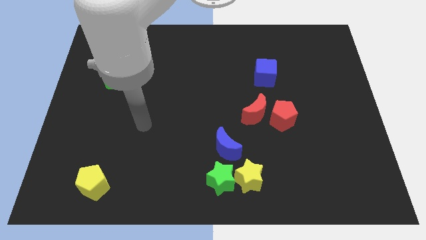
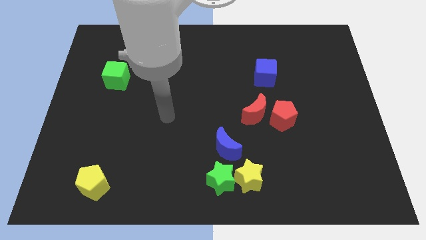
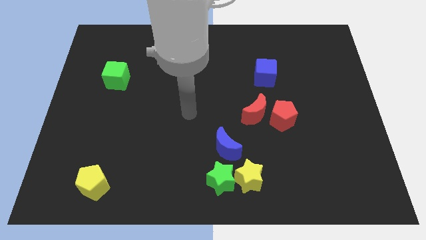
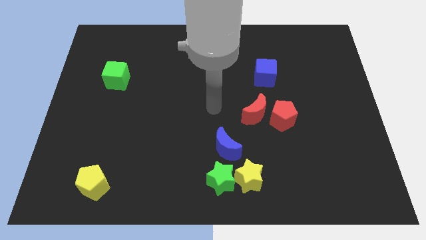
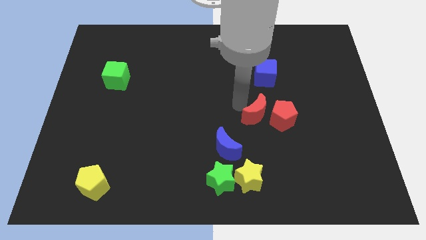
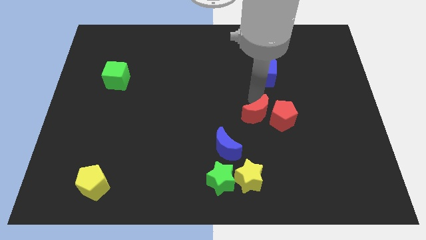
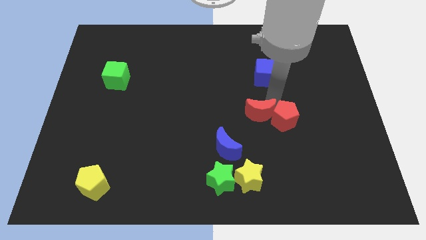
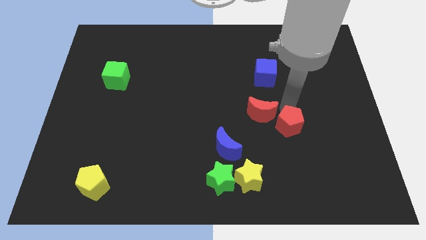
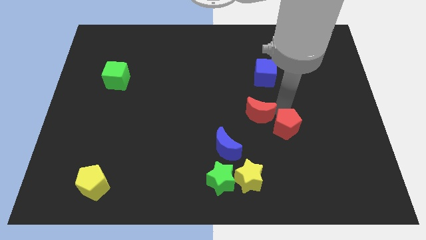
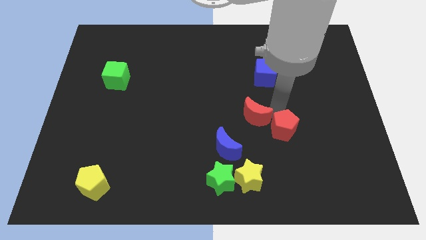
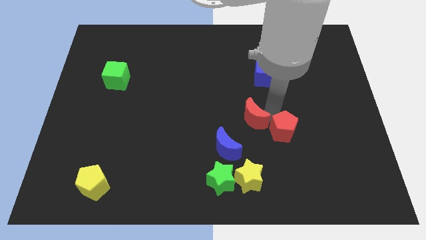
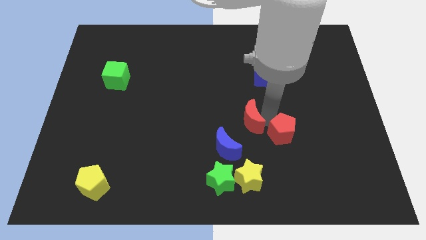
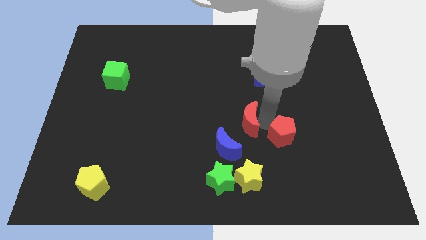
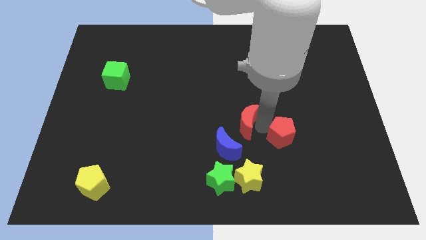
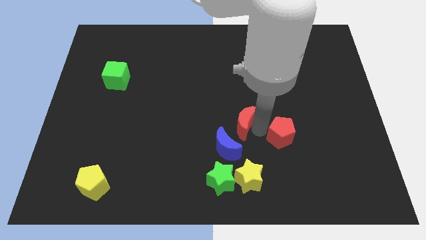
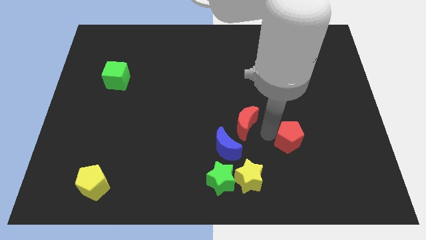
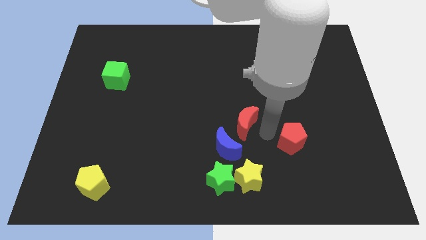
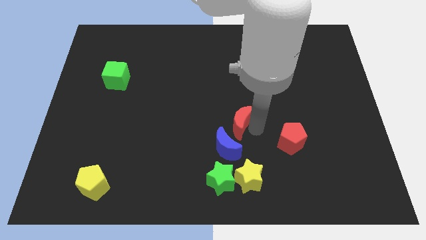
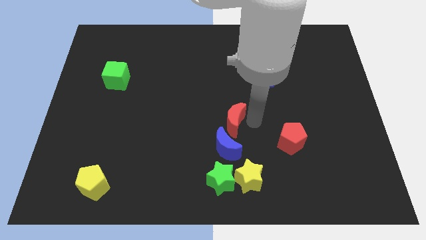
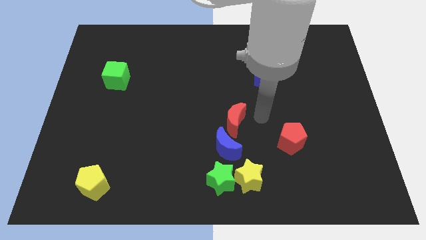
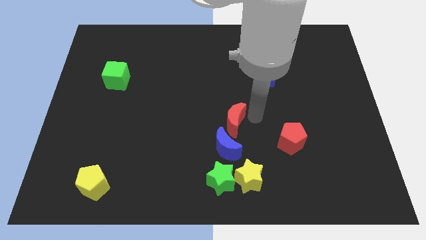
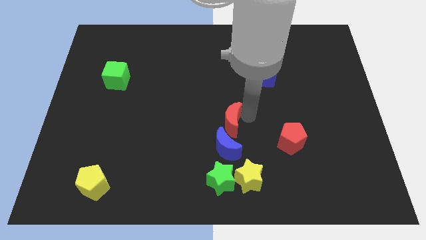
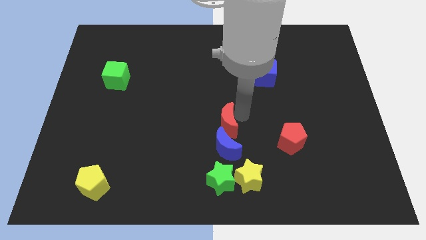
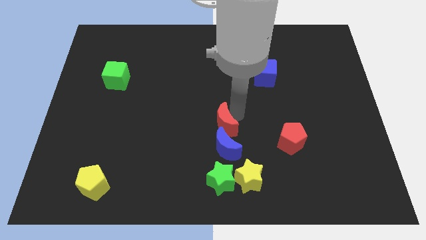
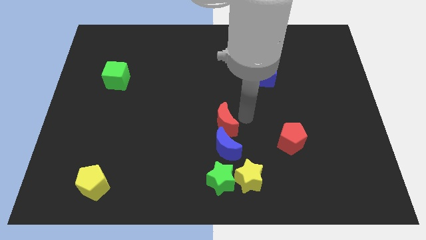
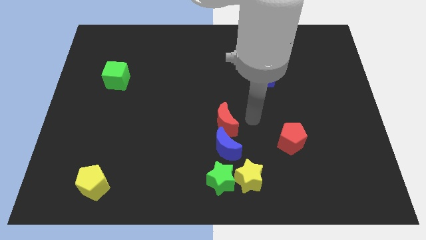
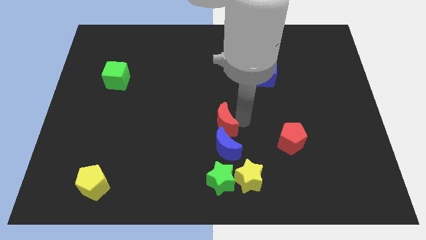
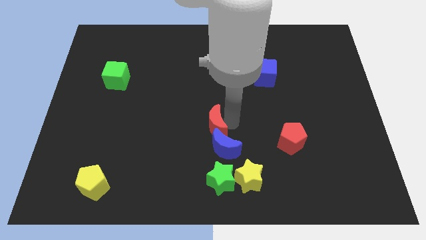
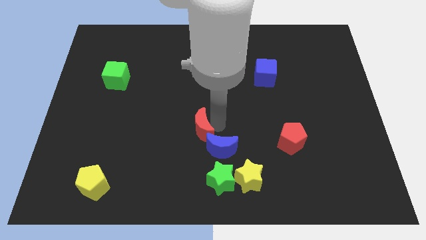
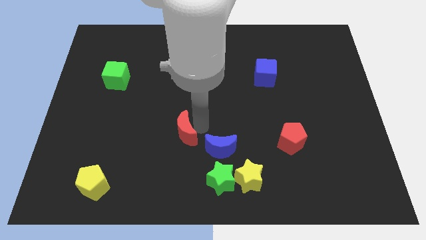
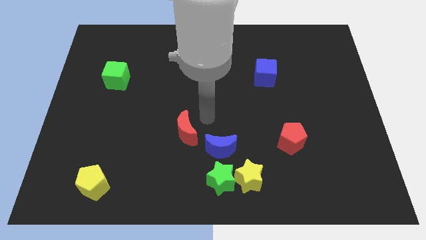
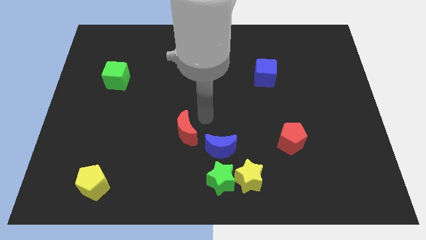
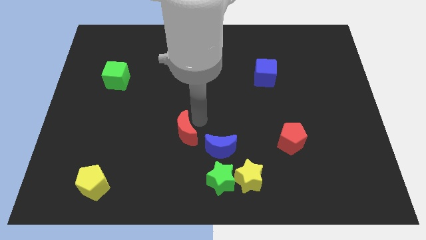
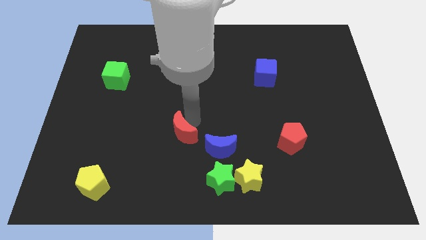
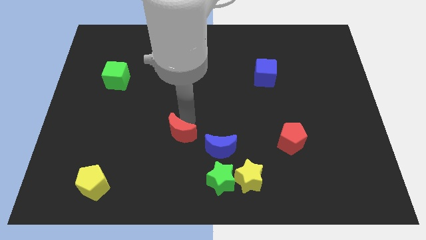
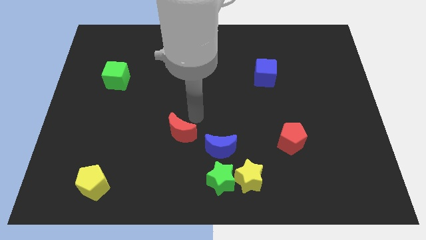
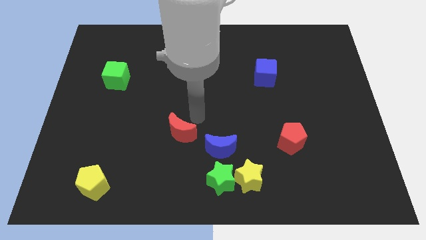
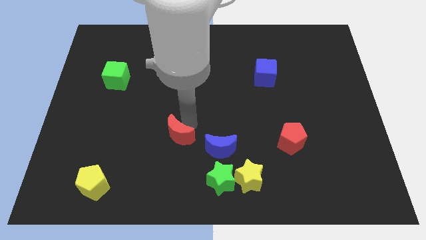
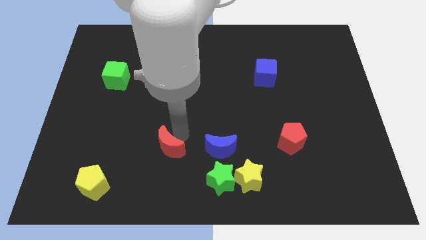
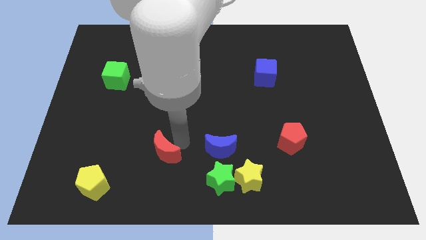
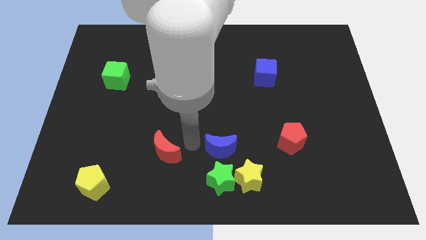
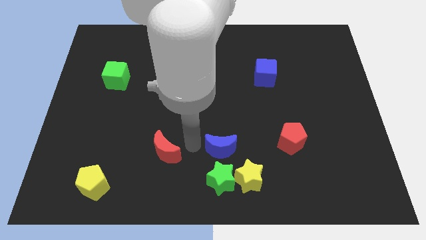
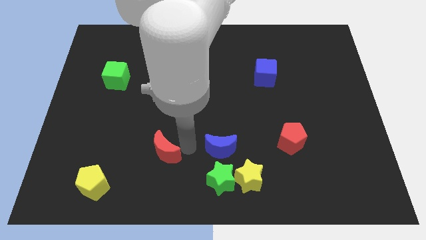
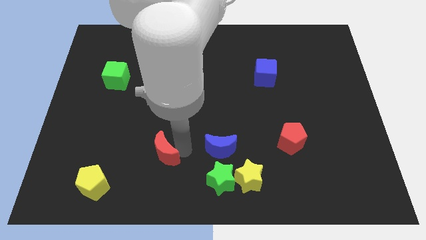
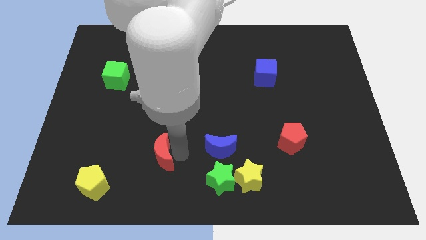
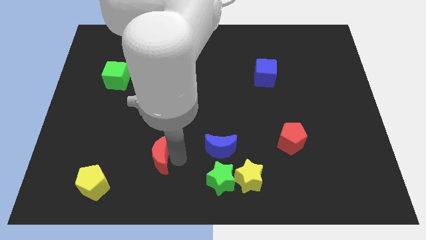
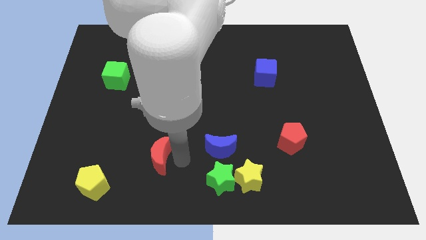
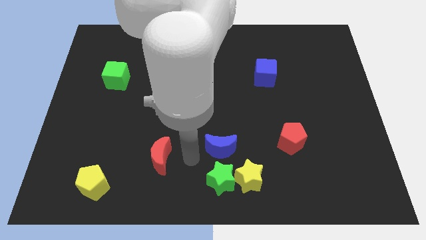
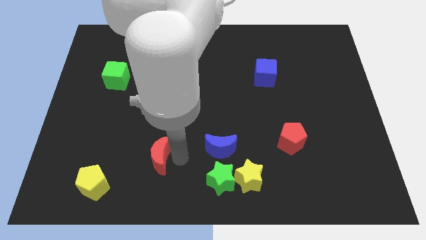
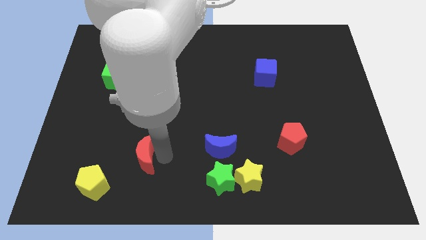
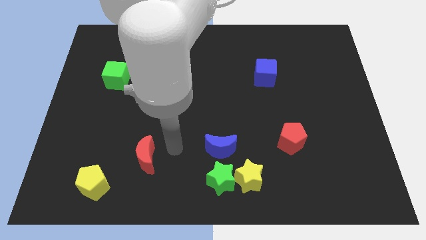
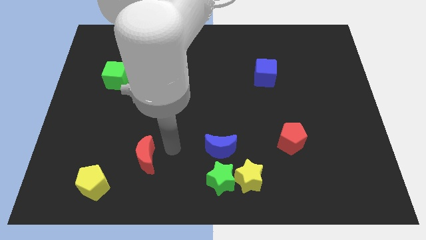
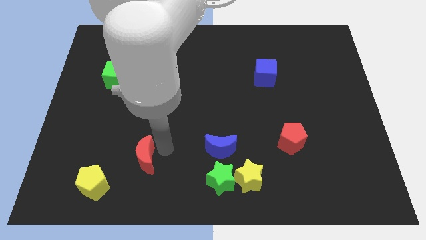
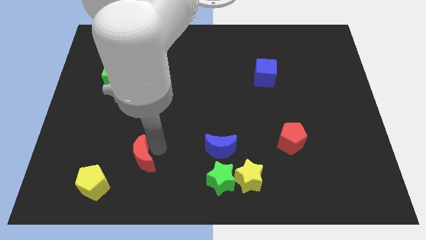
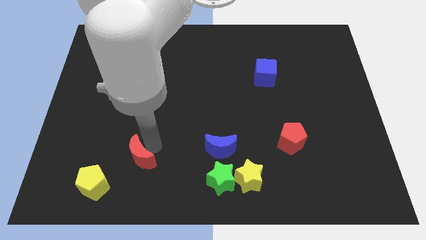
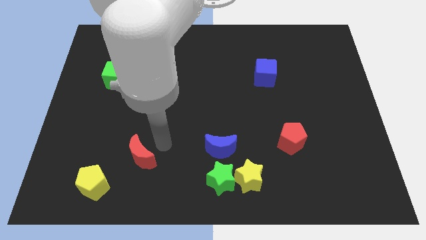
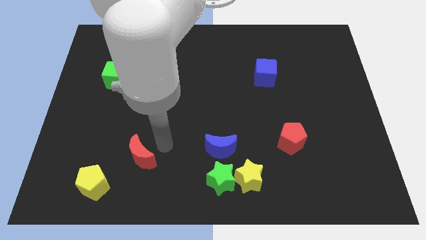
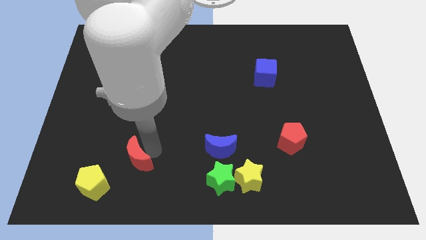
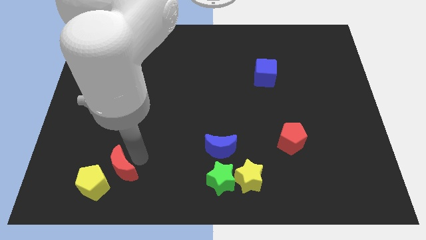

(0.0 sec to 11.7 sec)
slide the red moon to the yellow pentagon
